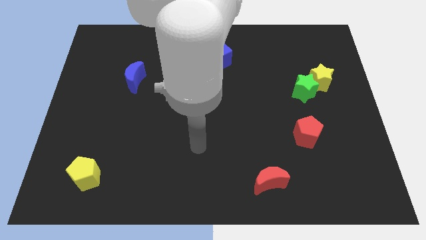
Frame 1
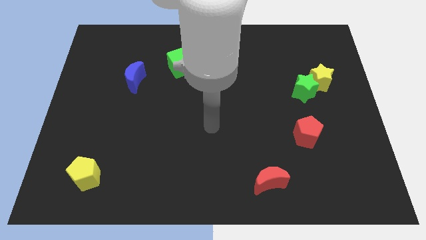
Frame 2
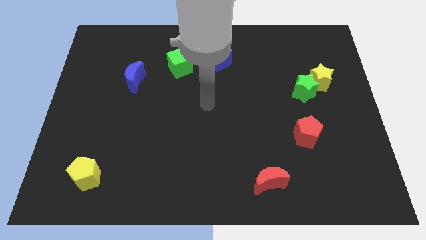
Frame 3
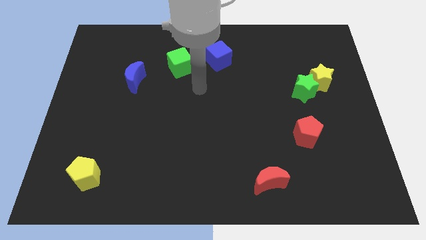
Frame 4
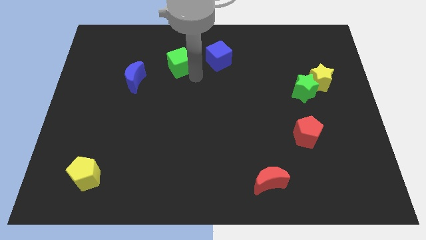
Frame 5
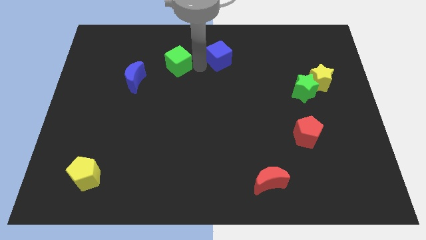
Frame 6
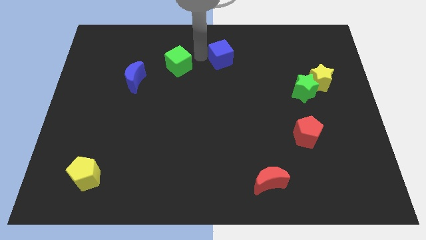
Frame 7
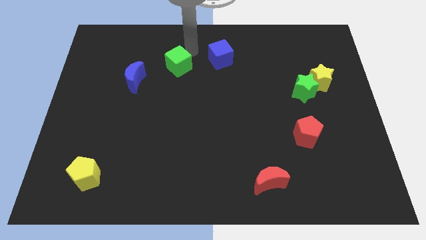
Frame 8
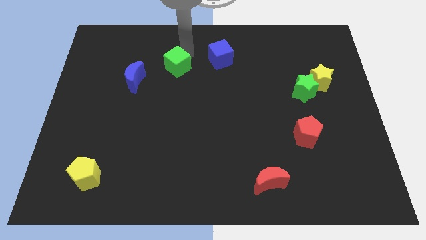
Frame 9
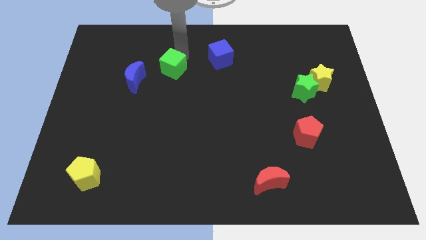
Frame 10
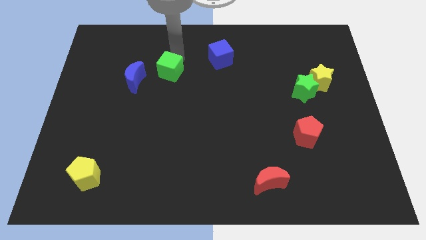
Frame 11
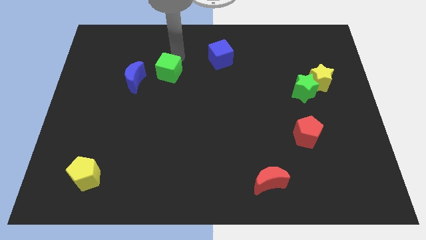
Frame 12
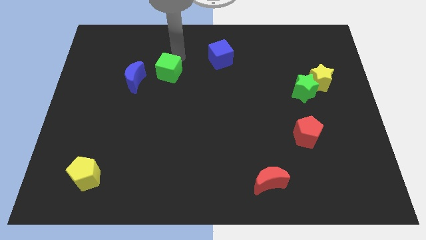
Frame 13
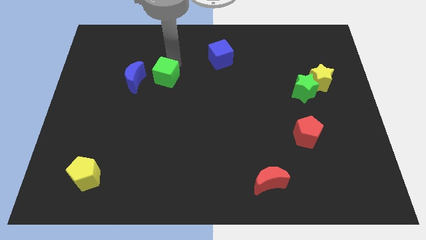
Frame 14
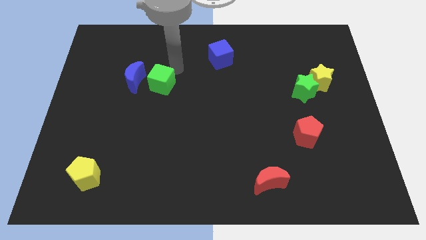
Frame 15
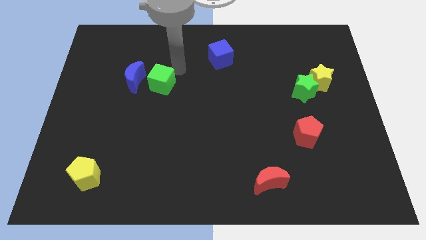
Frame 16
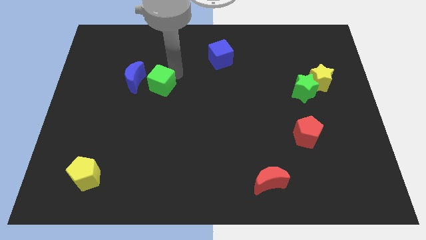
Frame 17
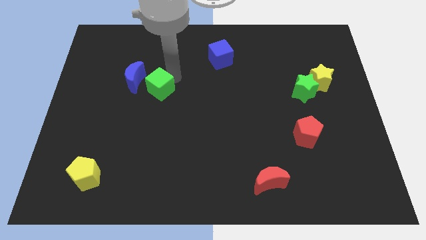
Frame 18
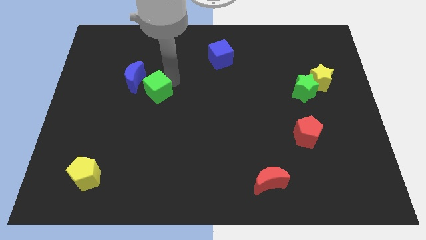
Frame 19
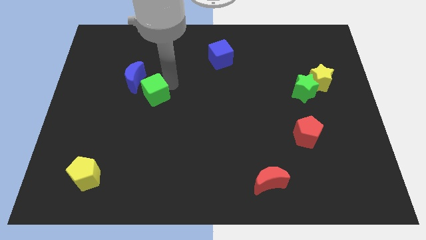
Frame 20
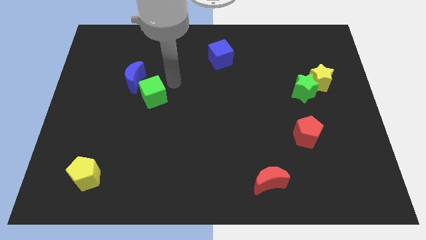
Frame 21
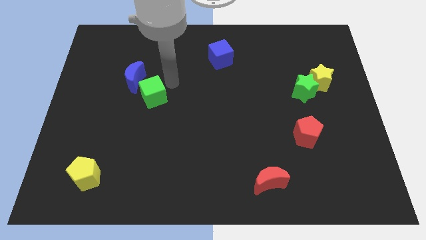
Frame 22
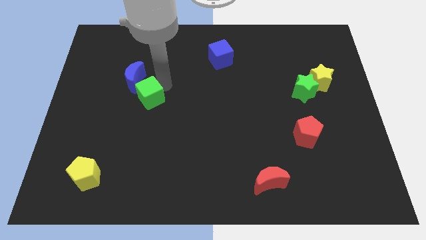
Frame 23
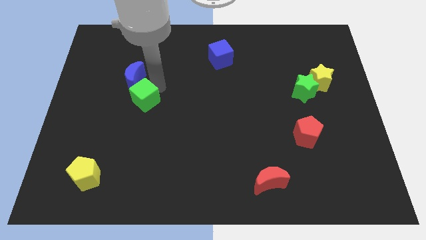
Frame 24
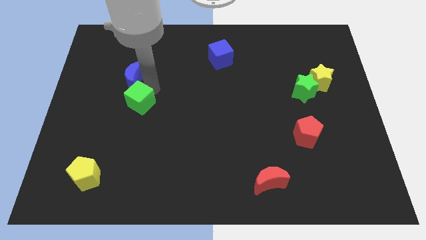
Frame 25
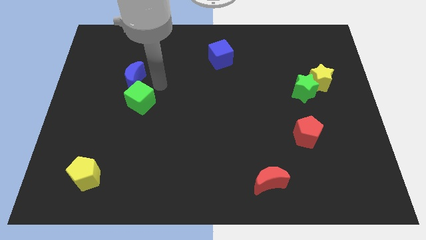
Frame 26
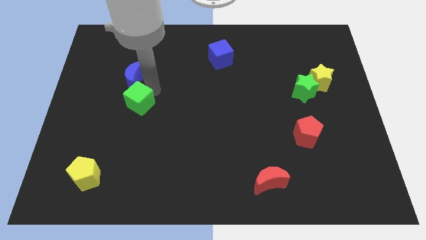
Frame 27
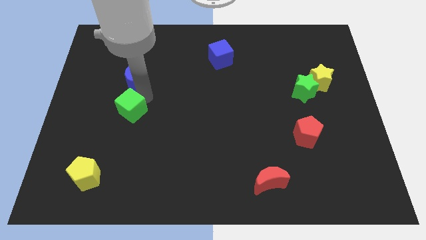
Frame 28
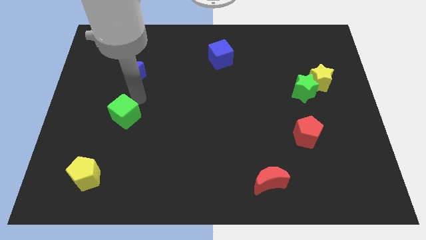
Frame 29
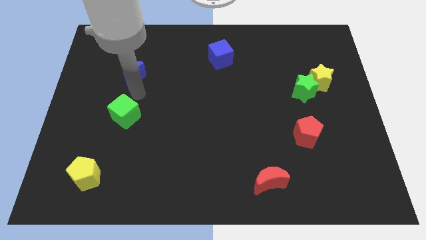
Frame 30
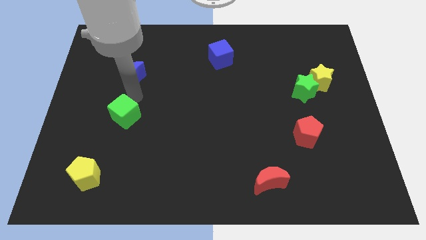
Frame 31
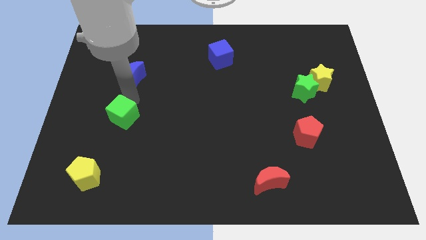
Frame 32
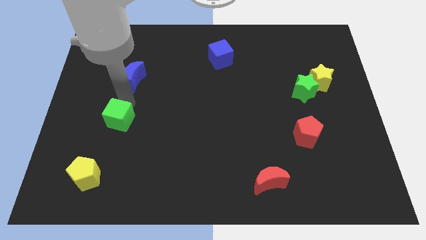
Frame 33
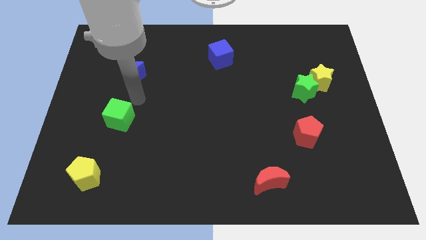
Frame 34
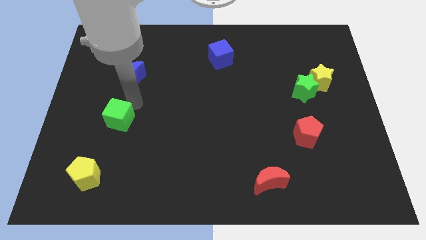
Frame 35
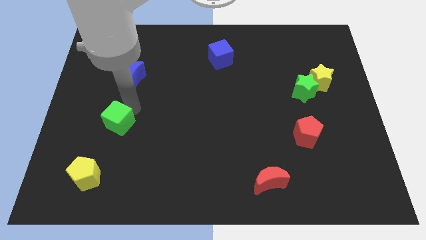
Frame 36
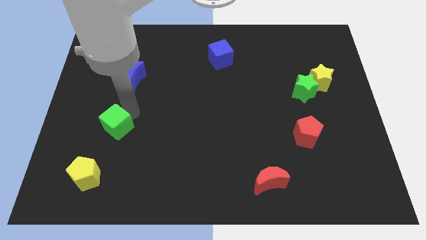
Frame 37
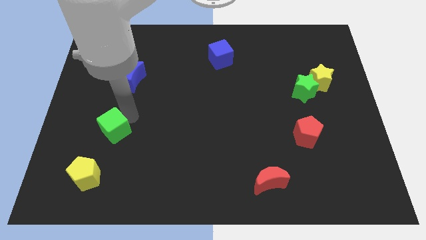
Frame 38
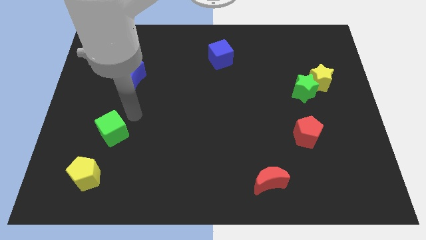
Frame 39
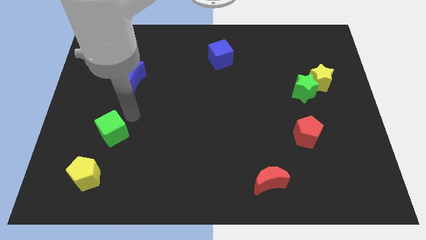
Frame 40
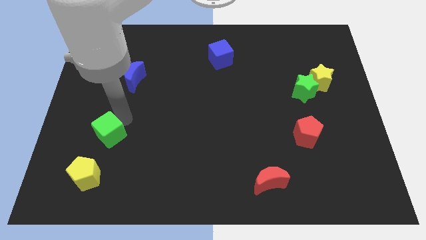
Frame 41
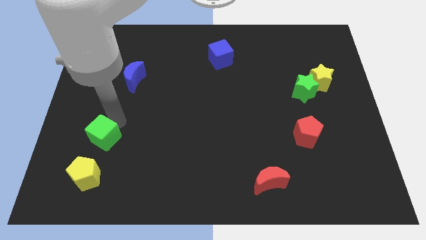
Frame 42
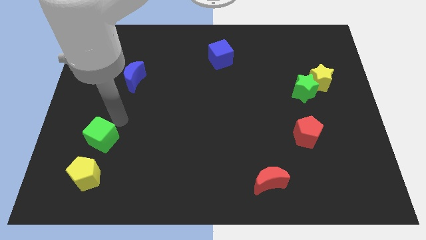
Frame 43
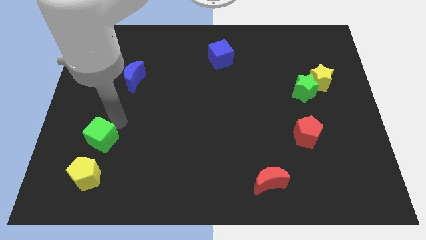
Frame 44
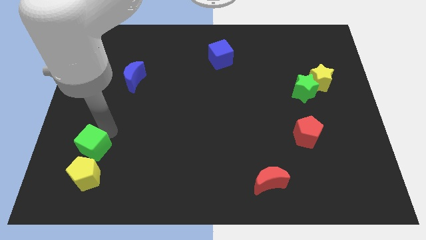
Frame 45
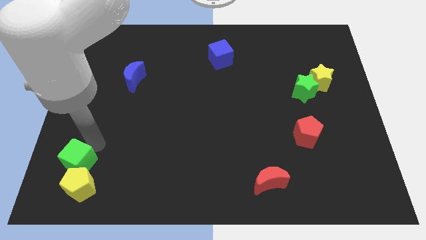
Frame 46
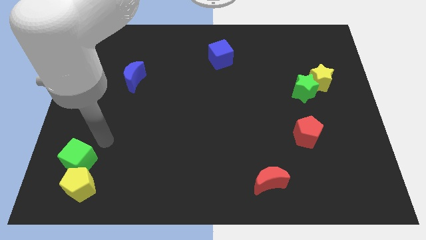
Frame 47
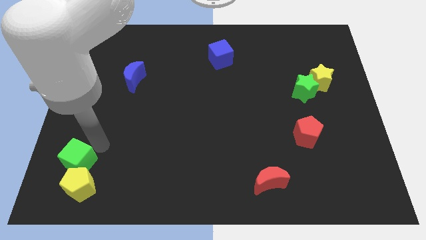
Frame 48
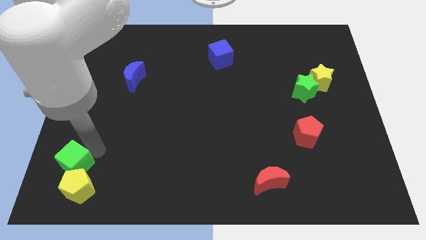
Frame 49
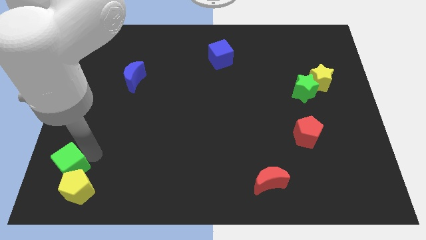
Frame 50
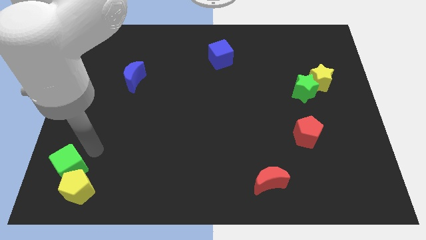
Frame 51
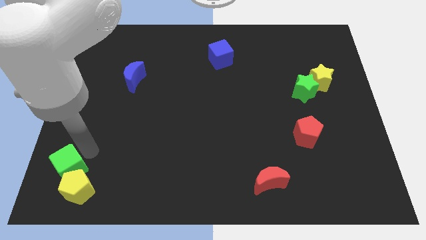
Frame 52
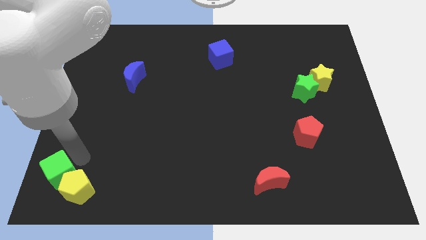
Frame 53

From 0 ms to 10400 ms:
put the green cube to the lower left corner

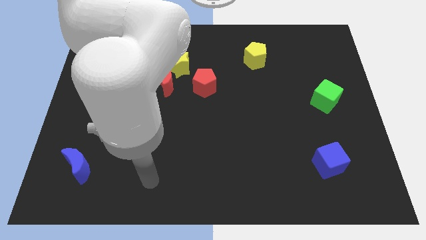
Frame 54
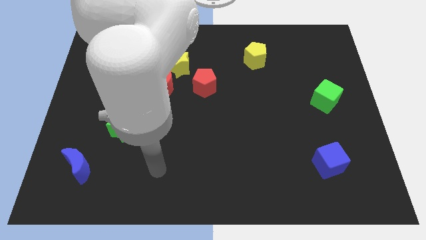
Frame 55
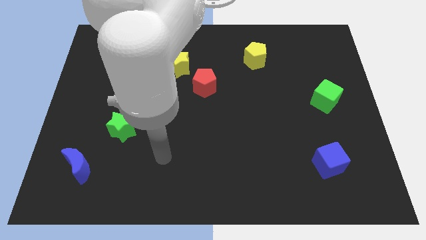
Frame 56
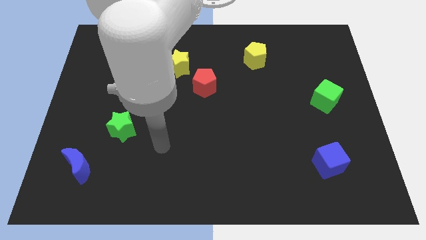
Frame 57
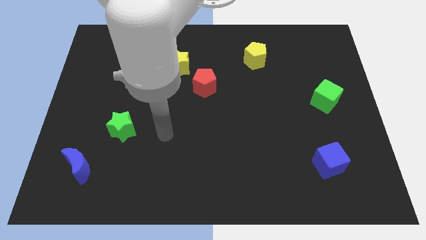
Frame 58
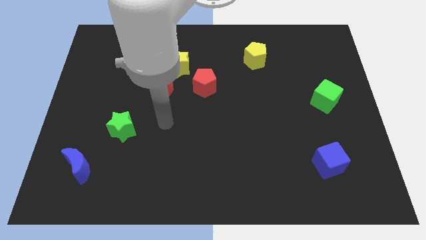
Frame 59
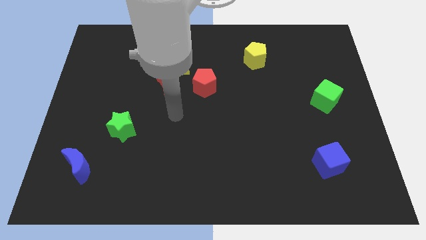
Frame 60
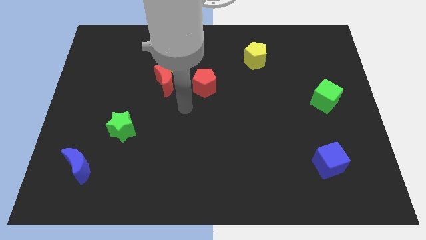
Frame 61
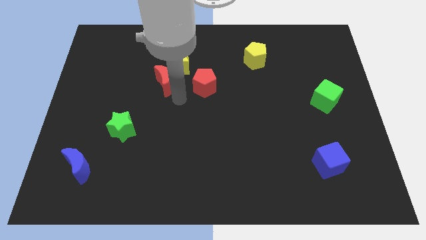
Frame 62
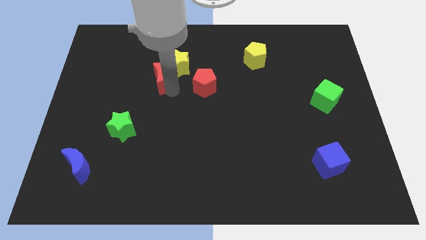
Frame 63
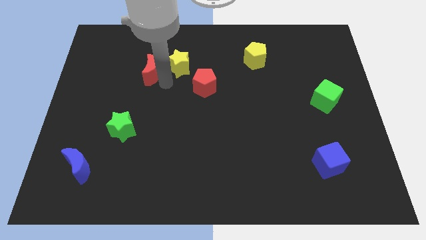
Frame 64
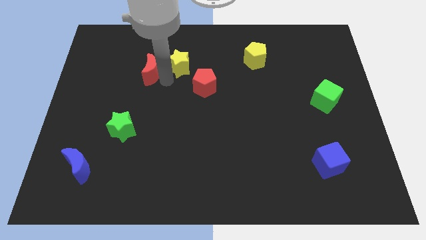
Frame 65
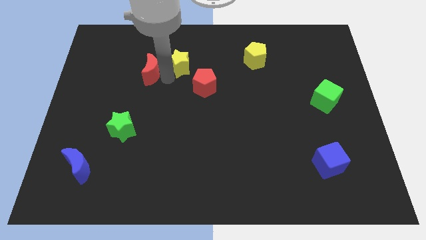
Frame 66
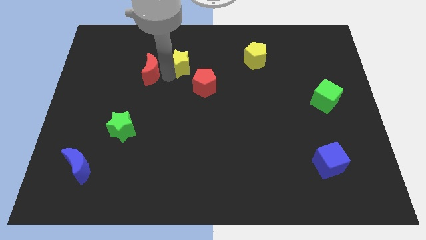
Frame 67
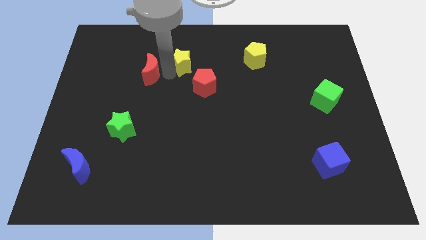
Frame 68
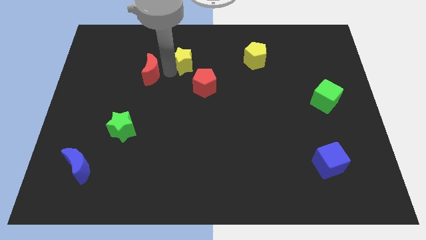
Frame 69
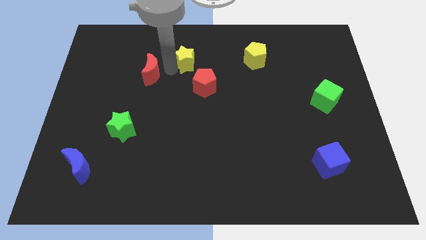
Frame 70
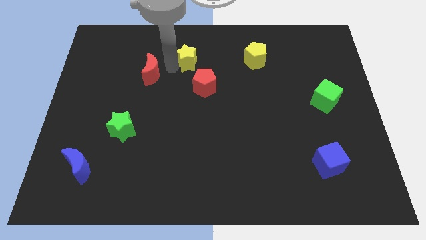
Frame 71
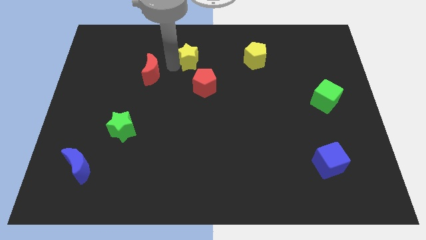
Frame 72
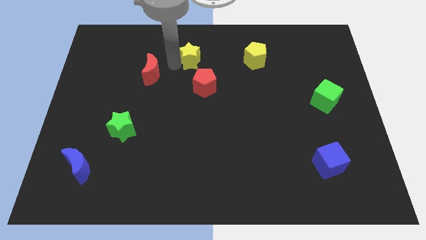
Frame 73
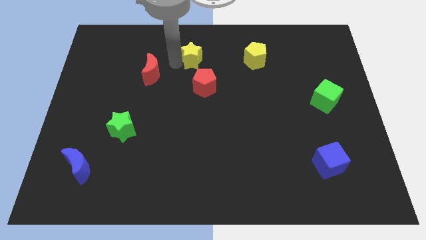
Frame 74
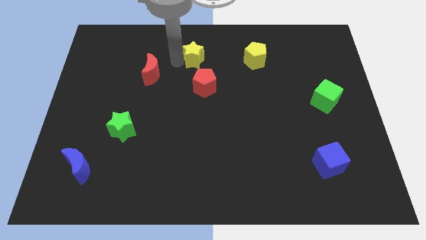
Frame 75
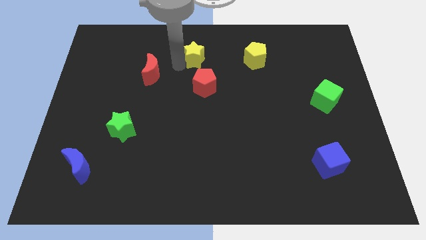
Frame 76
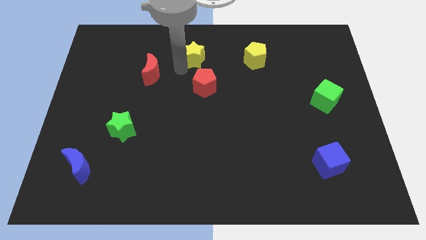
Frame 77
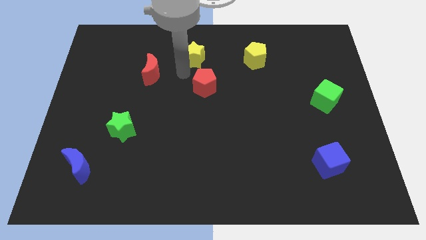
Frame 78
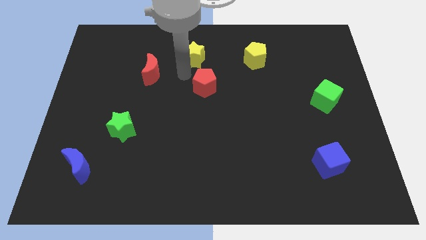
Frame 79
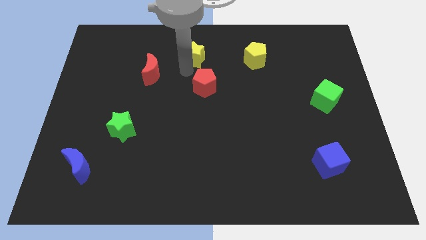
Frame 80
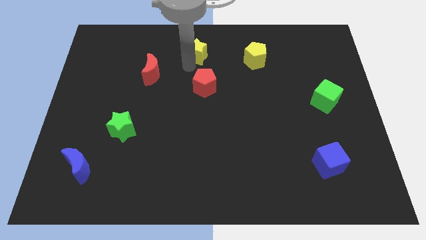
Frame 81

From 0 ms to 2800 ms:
move the yellow star to the top
